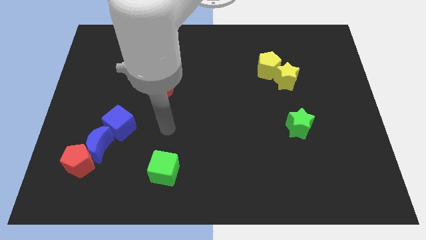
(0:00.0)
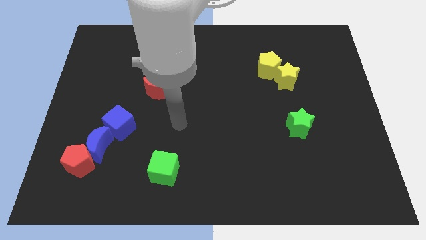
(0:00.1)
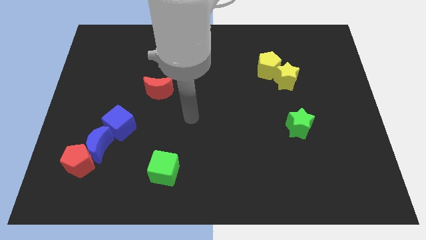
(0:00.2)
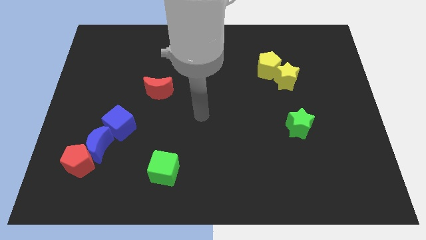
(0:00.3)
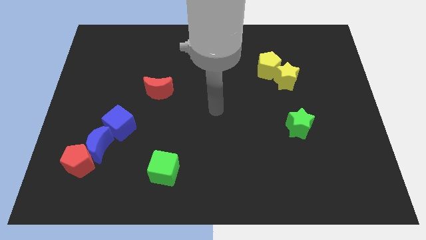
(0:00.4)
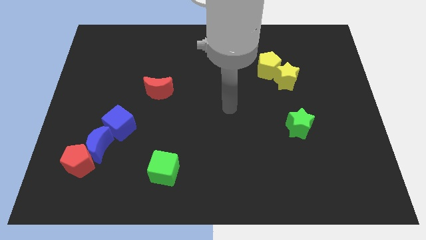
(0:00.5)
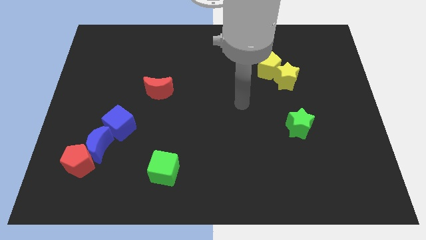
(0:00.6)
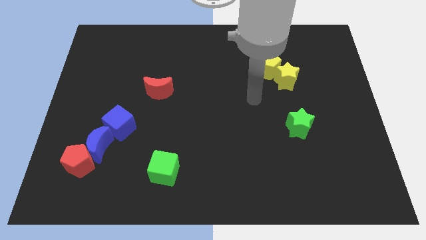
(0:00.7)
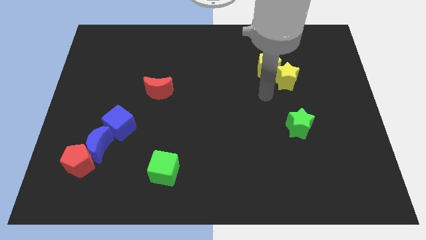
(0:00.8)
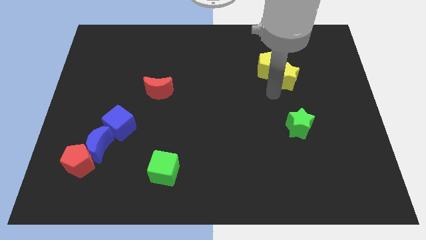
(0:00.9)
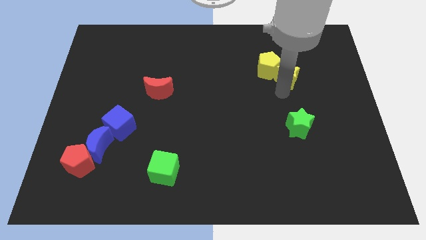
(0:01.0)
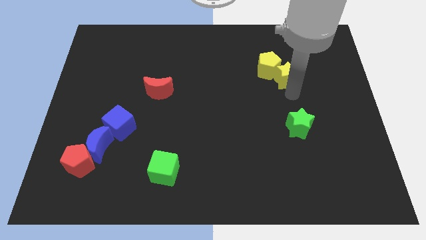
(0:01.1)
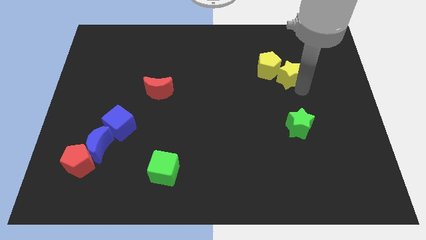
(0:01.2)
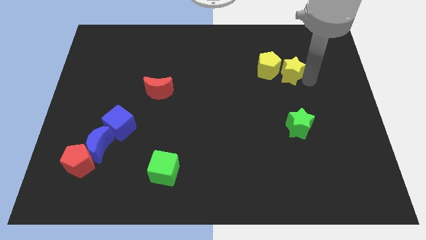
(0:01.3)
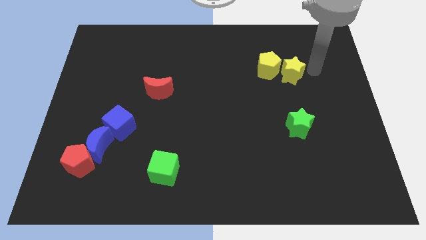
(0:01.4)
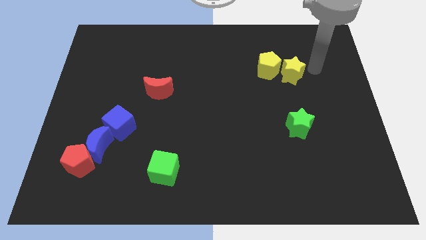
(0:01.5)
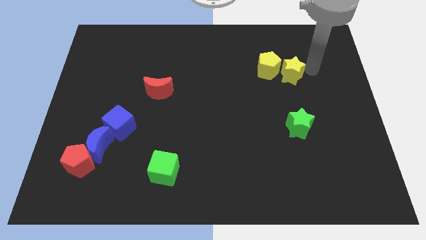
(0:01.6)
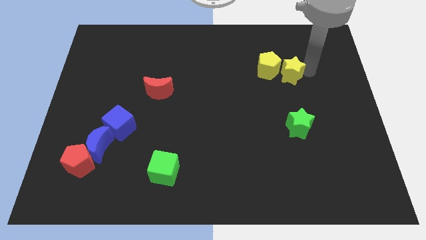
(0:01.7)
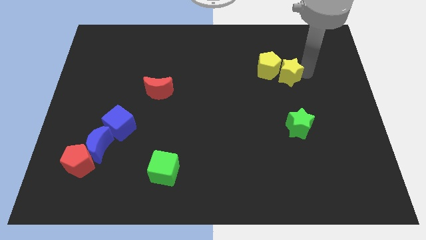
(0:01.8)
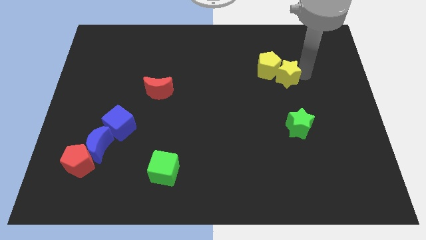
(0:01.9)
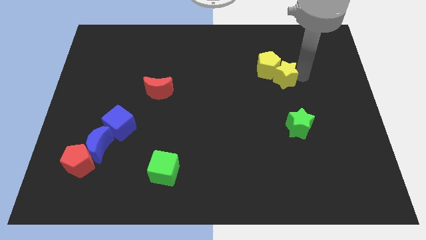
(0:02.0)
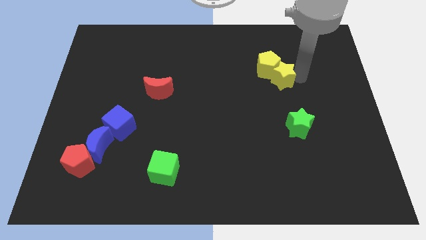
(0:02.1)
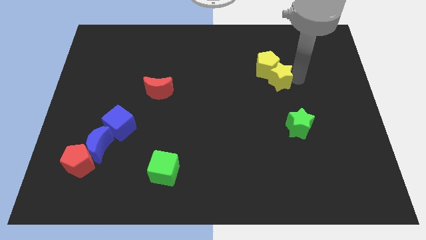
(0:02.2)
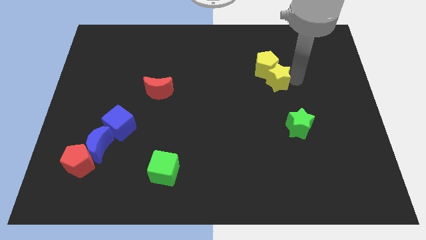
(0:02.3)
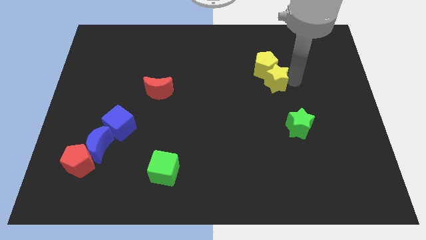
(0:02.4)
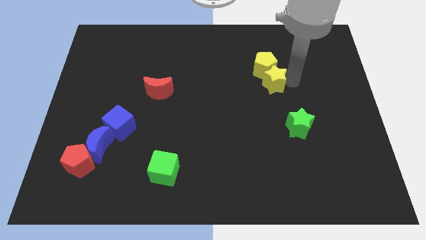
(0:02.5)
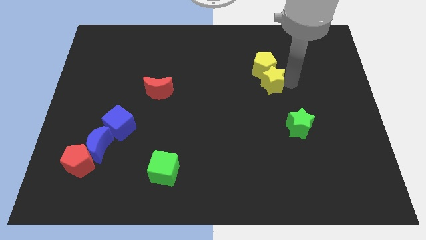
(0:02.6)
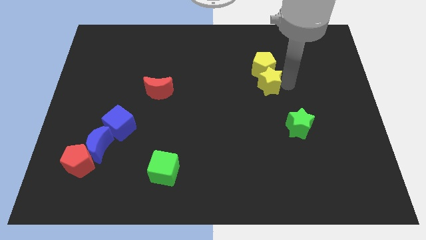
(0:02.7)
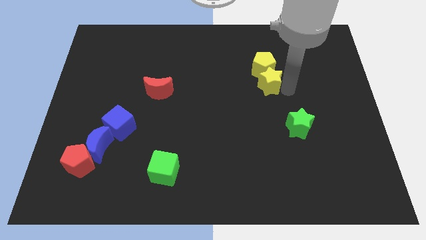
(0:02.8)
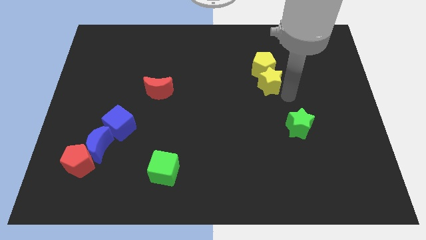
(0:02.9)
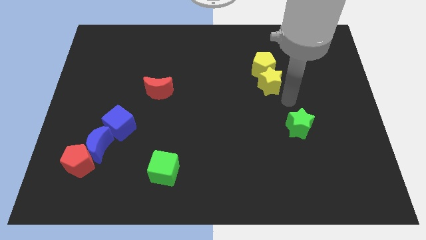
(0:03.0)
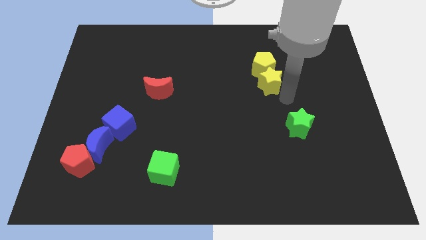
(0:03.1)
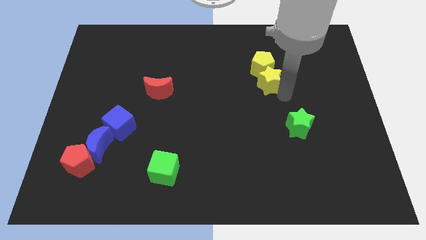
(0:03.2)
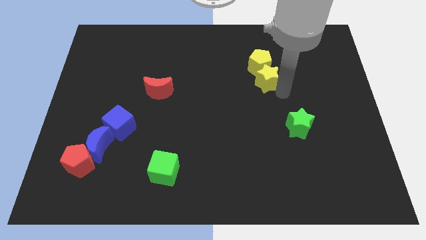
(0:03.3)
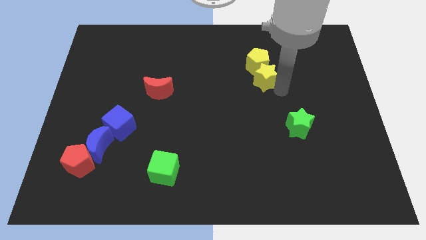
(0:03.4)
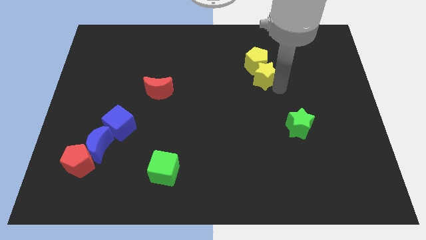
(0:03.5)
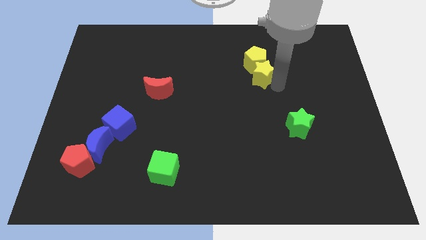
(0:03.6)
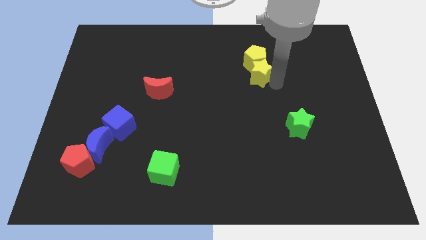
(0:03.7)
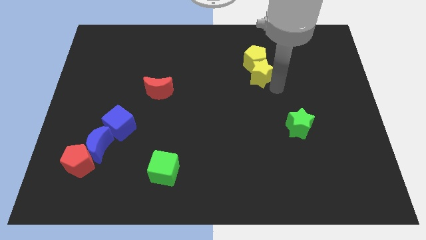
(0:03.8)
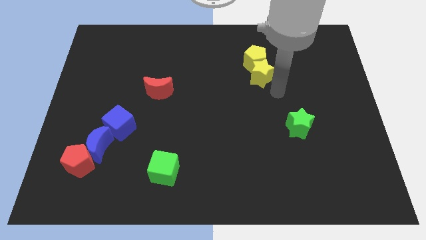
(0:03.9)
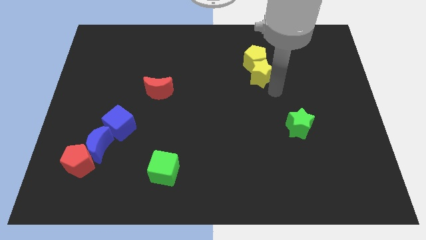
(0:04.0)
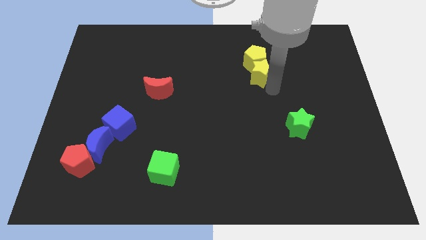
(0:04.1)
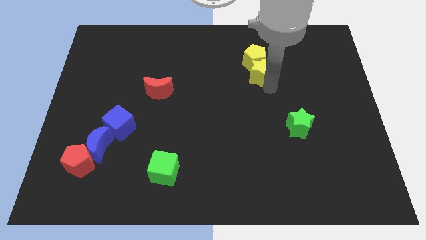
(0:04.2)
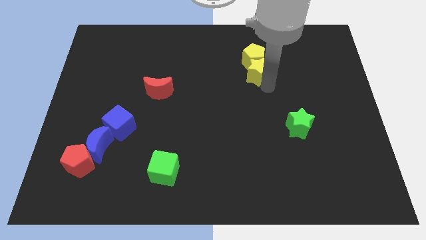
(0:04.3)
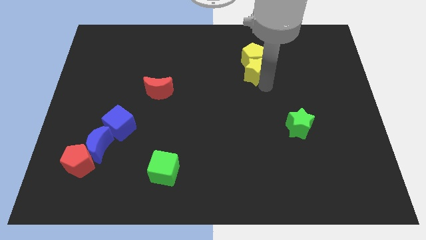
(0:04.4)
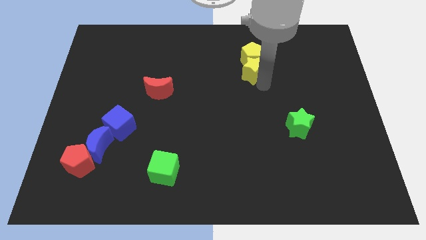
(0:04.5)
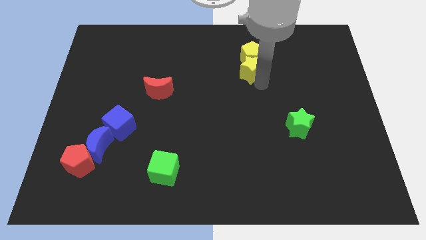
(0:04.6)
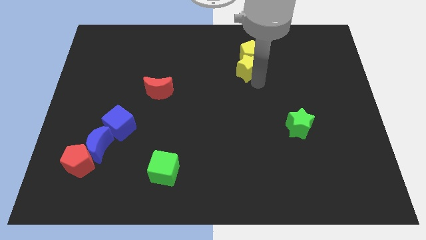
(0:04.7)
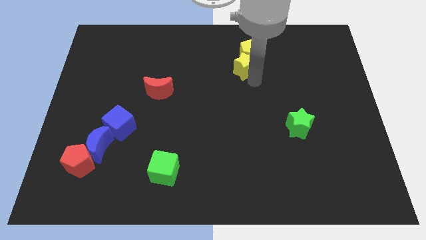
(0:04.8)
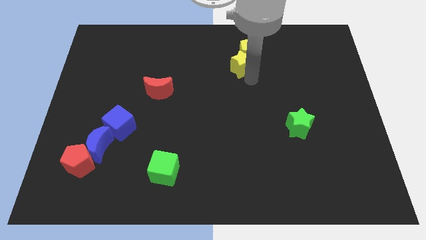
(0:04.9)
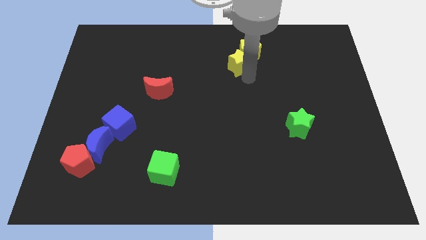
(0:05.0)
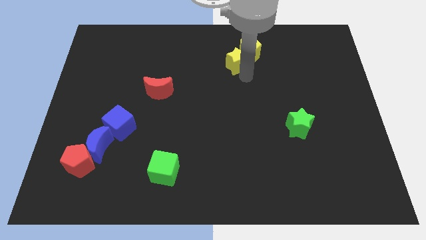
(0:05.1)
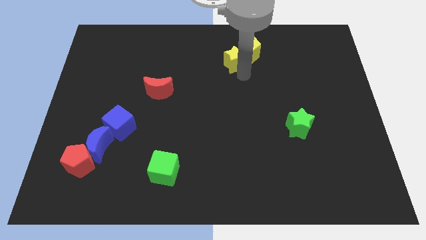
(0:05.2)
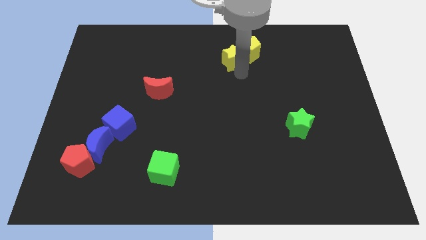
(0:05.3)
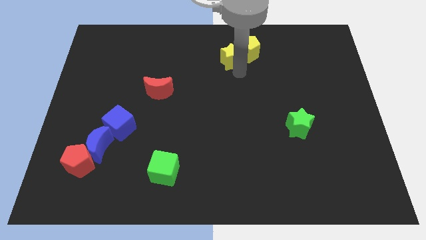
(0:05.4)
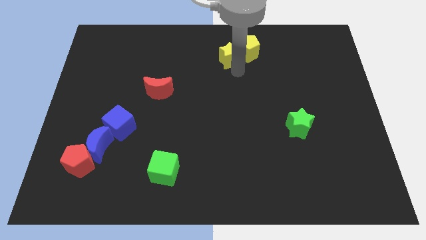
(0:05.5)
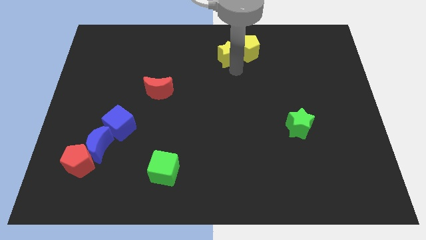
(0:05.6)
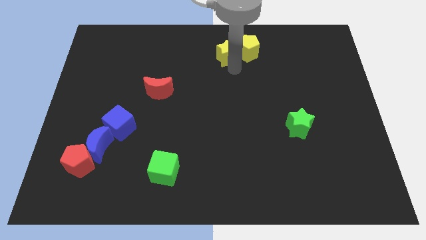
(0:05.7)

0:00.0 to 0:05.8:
put the yellow star to the towards your base

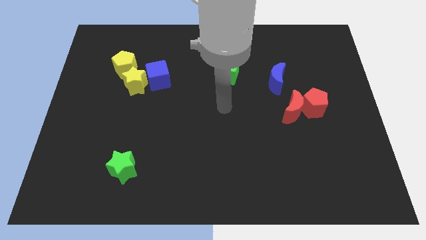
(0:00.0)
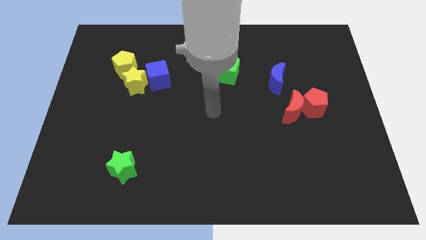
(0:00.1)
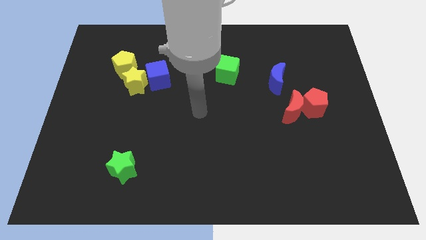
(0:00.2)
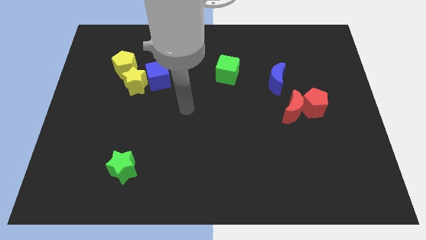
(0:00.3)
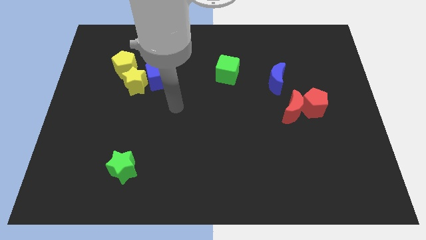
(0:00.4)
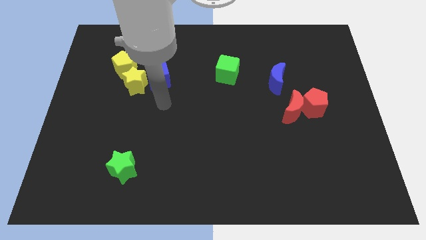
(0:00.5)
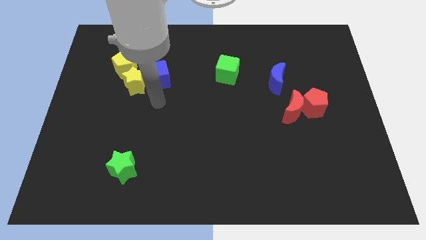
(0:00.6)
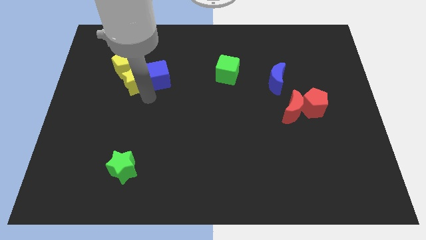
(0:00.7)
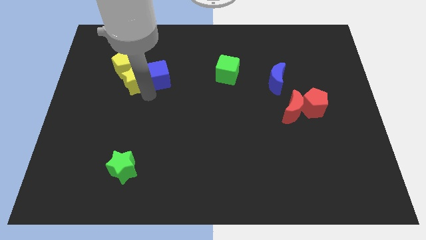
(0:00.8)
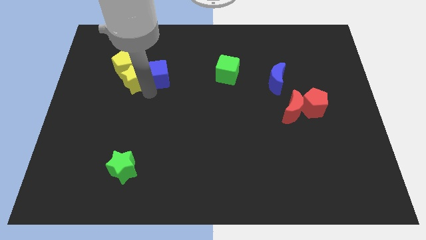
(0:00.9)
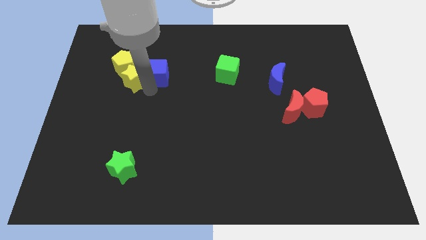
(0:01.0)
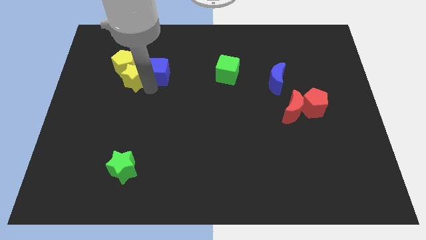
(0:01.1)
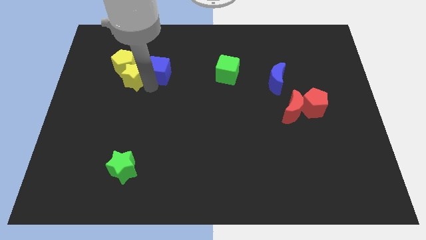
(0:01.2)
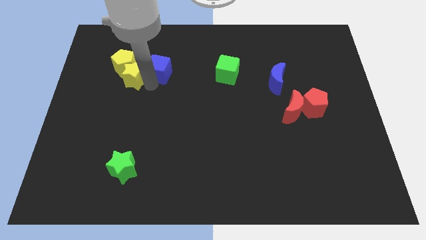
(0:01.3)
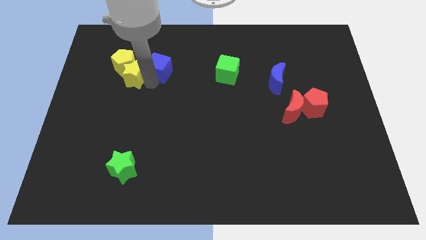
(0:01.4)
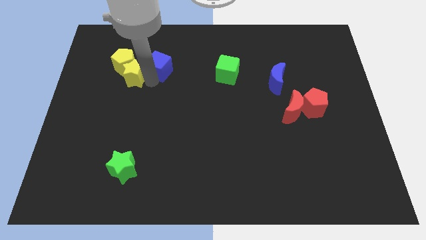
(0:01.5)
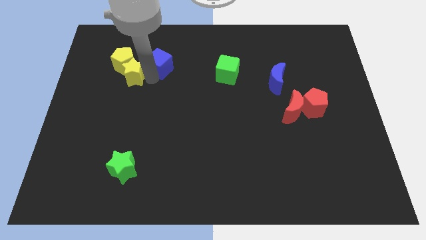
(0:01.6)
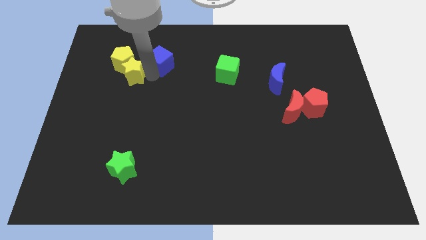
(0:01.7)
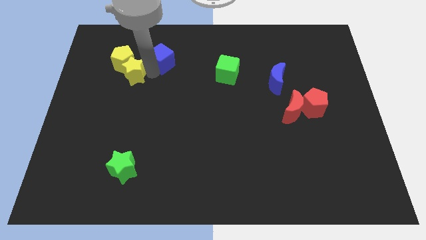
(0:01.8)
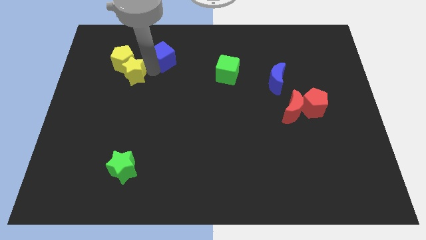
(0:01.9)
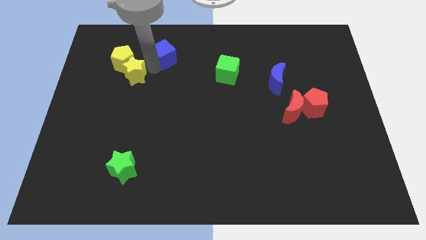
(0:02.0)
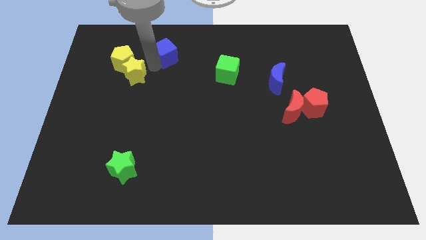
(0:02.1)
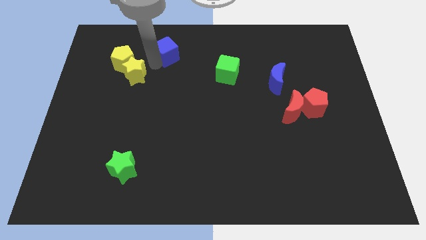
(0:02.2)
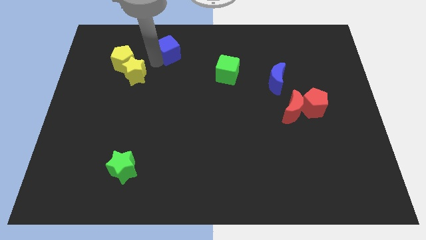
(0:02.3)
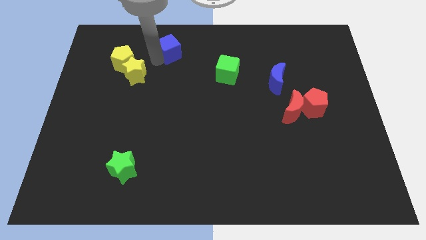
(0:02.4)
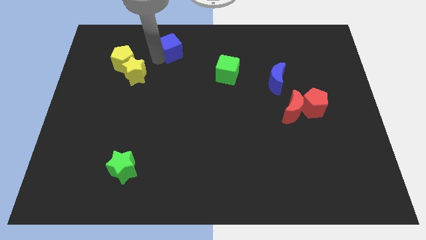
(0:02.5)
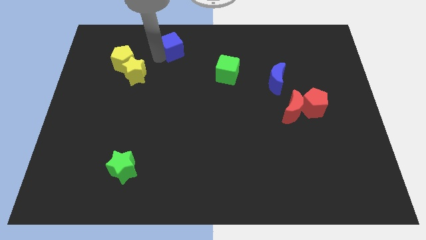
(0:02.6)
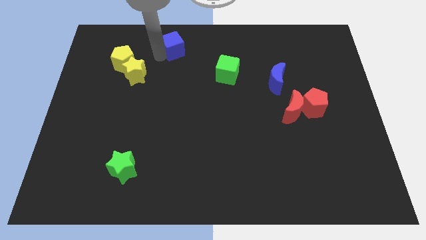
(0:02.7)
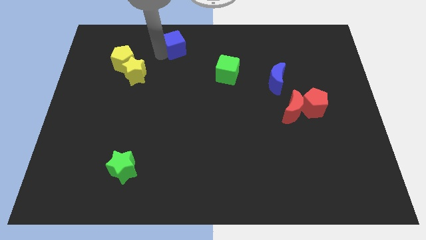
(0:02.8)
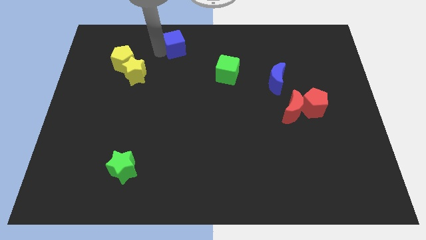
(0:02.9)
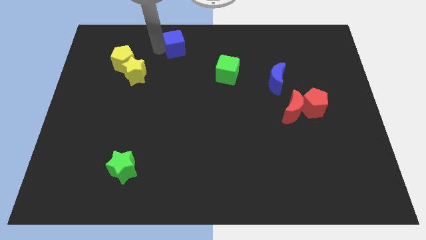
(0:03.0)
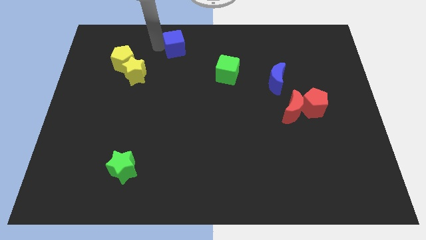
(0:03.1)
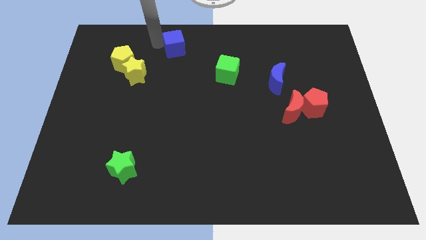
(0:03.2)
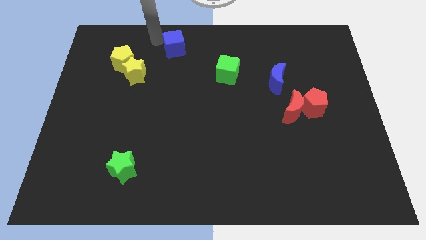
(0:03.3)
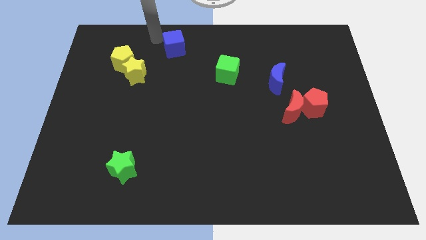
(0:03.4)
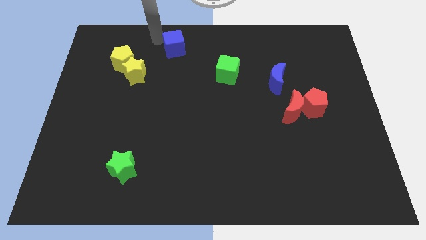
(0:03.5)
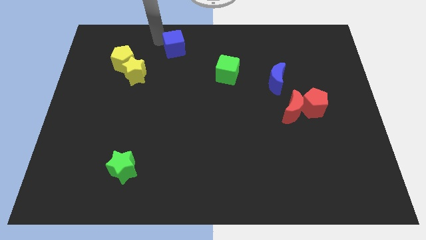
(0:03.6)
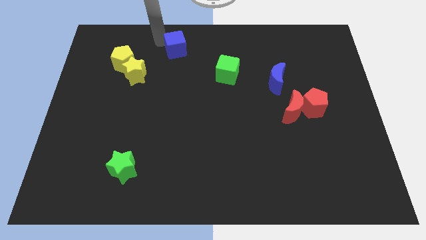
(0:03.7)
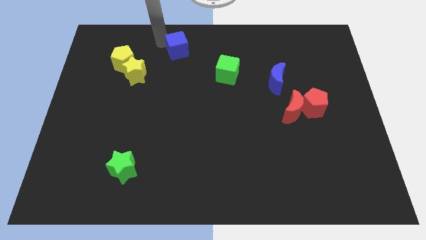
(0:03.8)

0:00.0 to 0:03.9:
slide the blue cube to the top side
